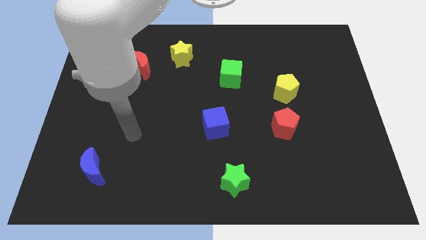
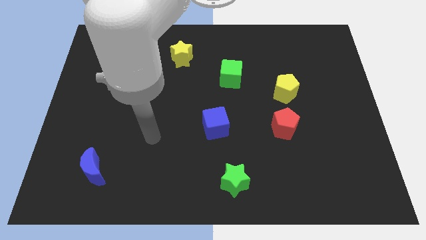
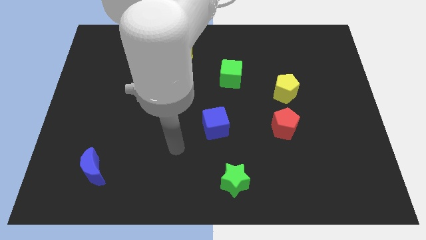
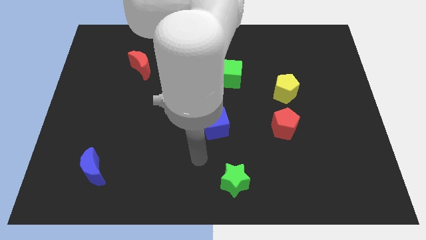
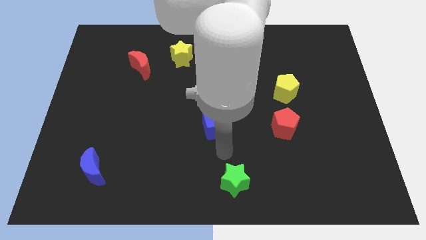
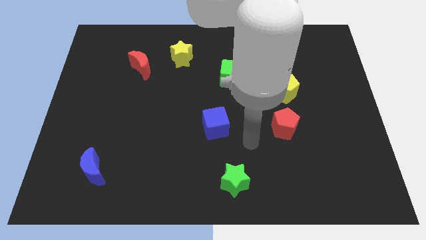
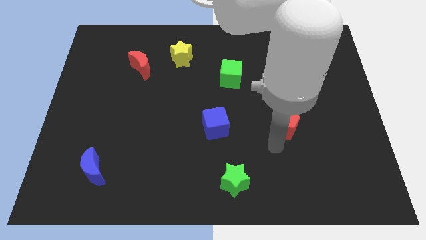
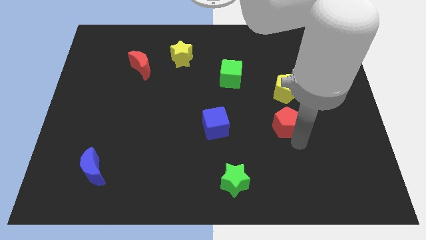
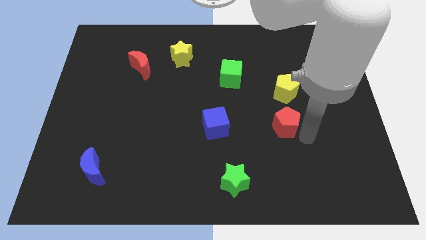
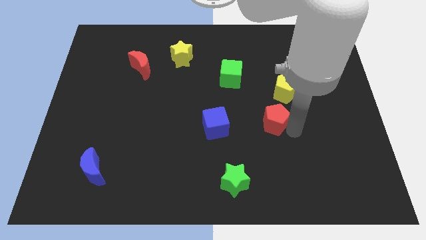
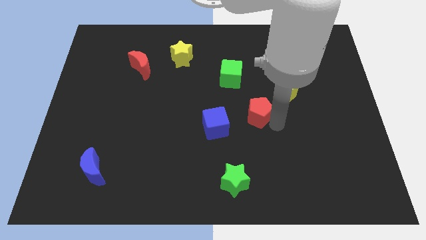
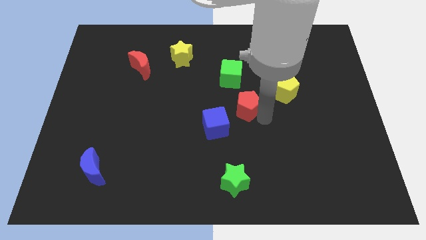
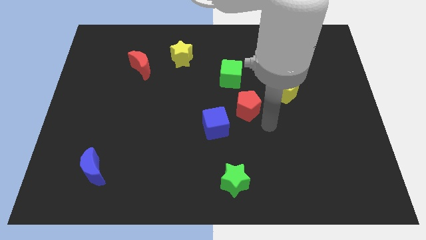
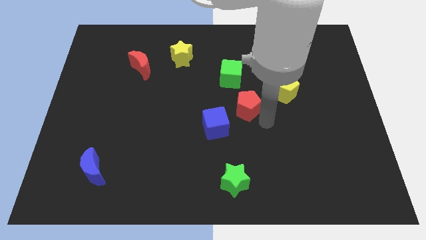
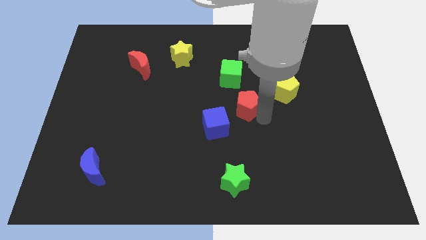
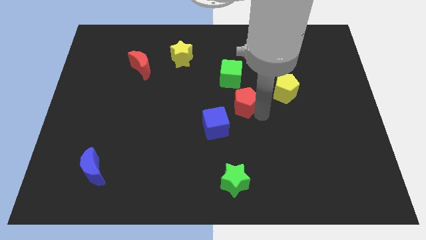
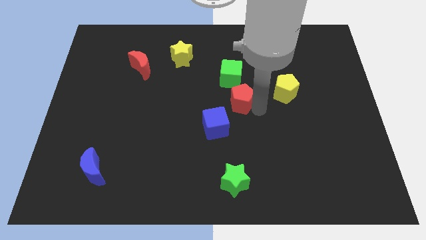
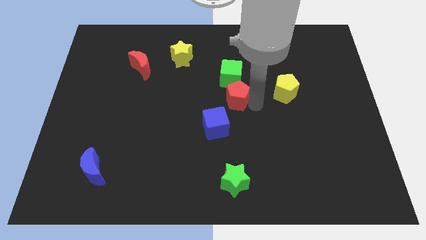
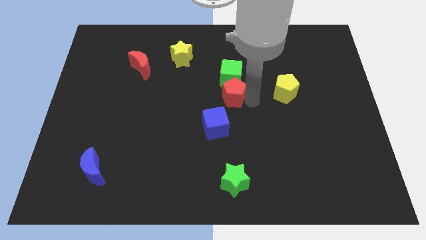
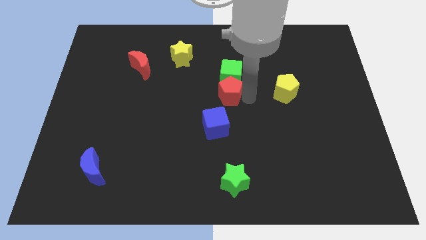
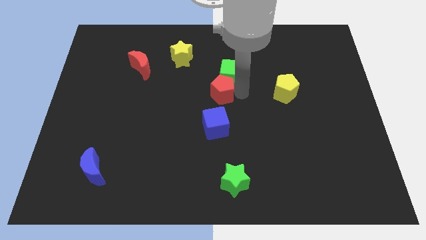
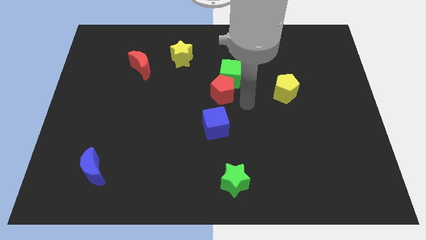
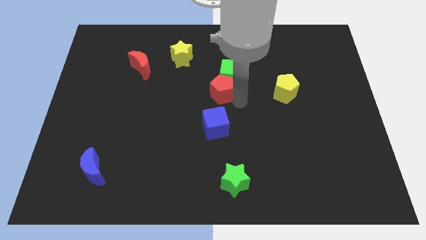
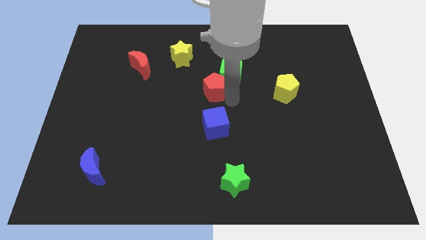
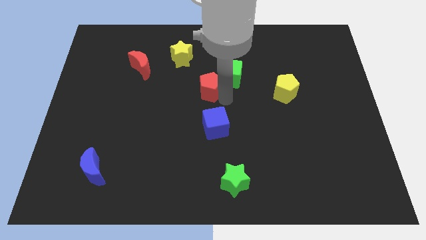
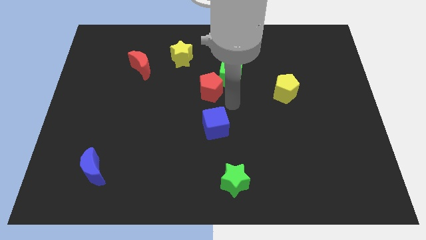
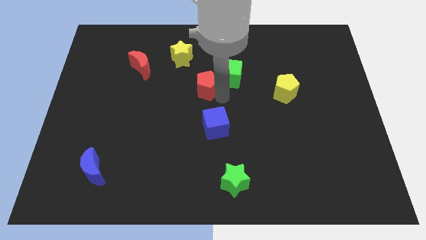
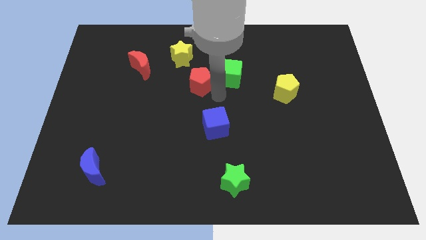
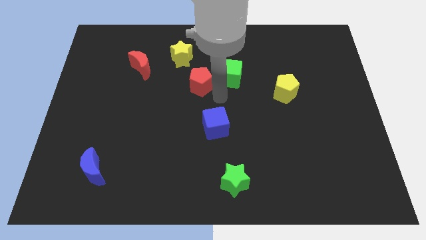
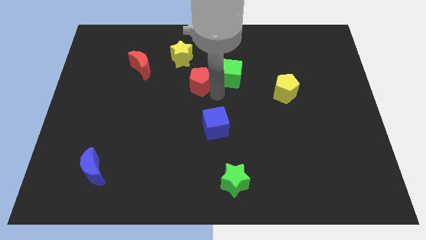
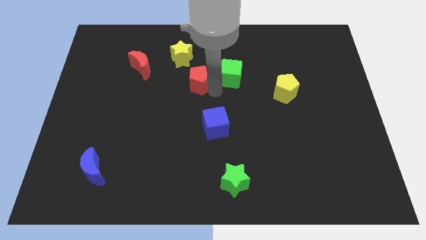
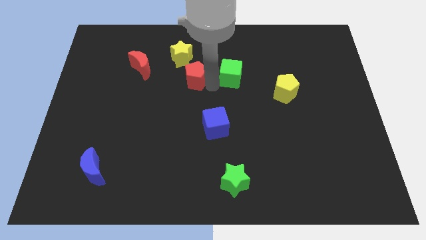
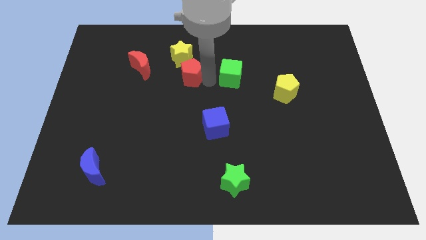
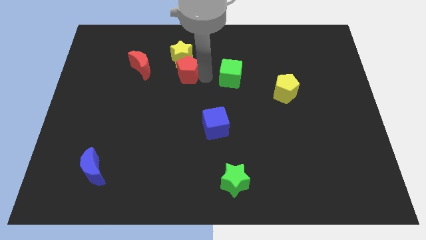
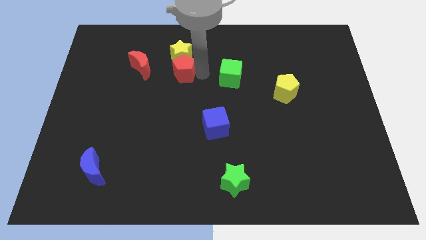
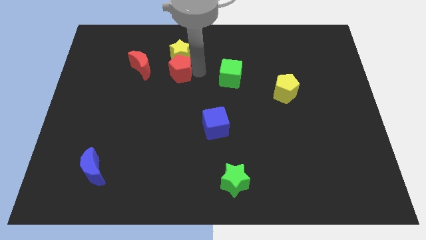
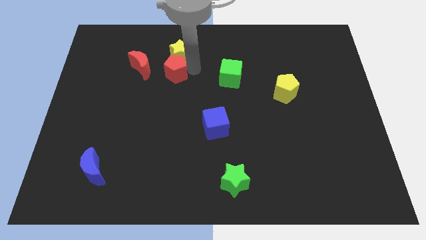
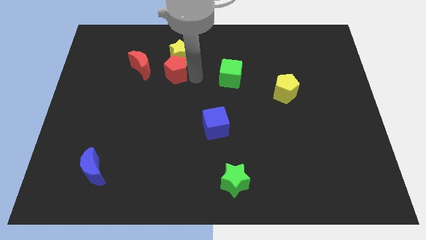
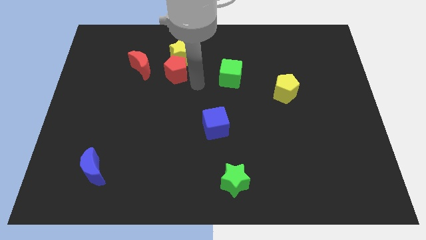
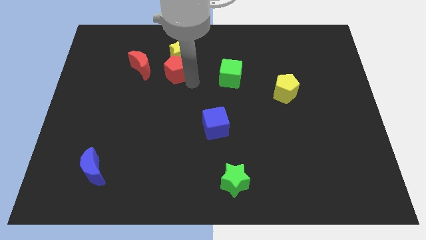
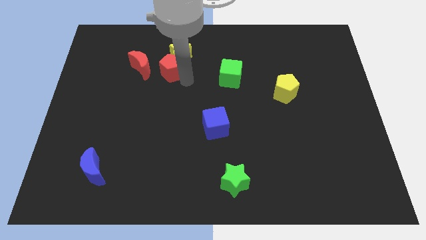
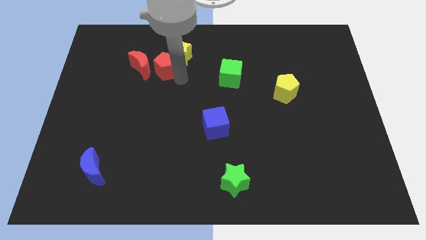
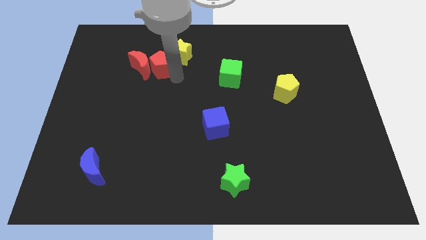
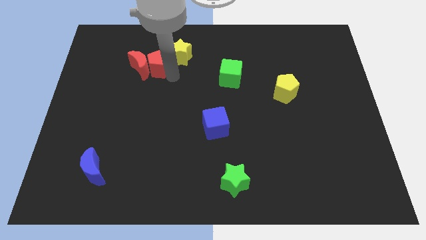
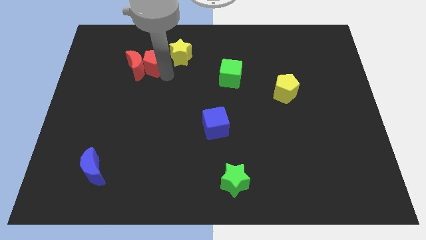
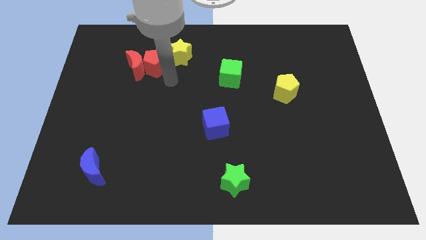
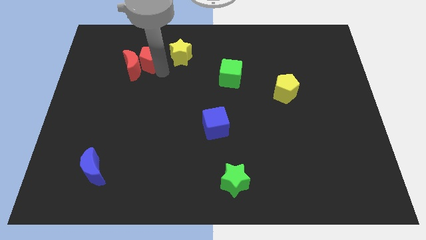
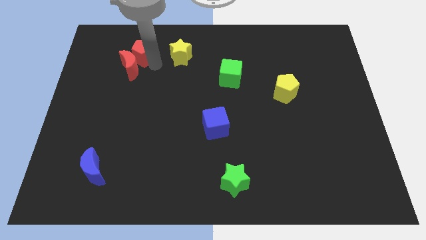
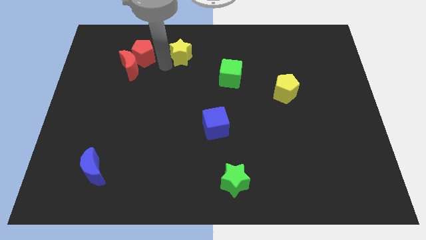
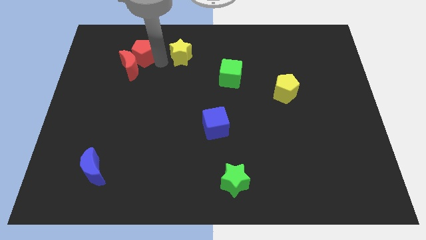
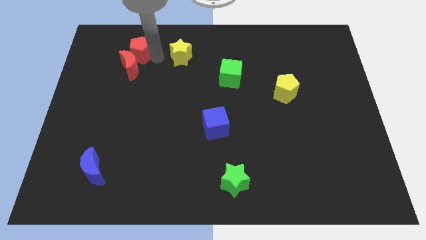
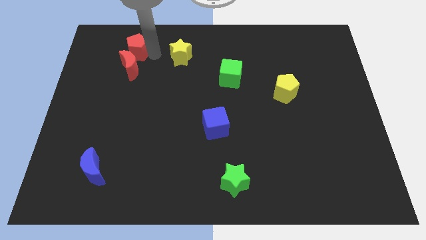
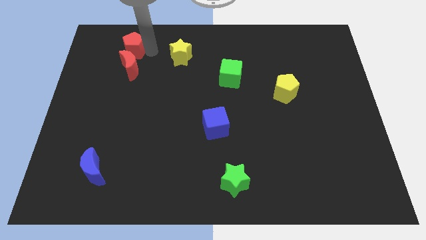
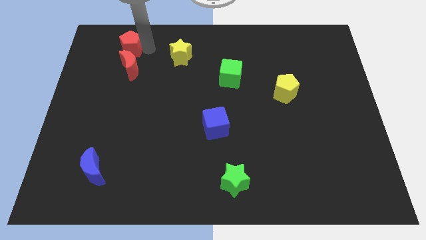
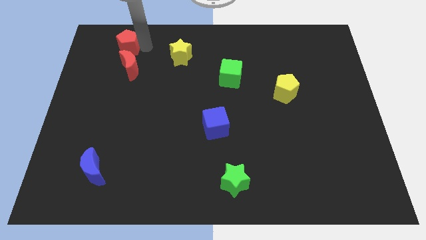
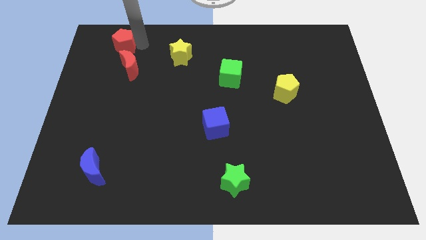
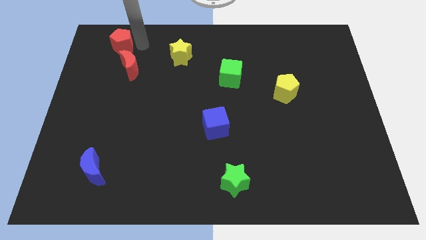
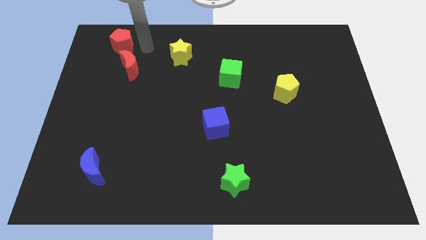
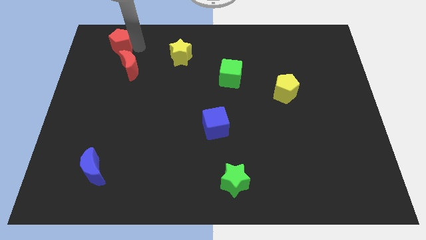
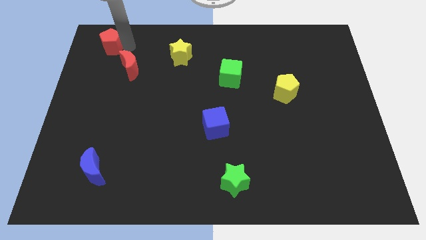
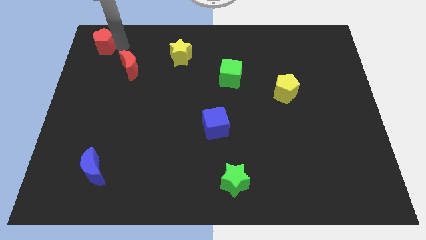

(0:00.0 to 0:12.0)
move the red pentagon to the top left

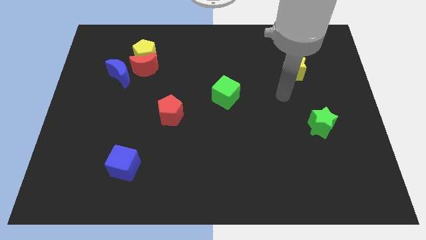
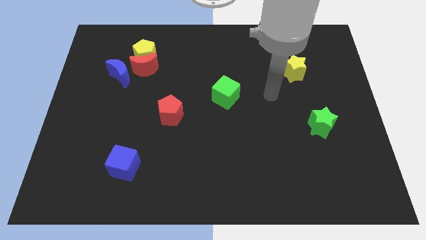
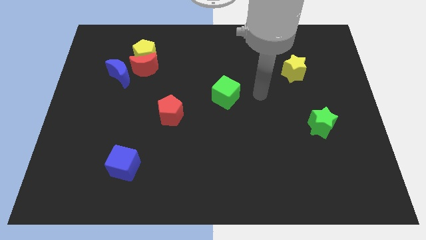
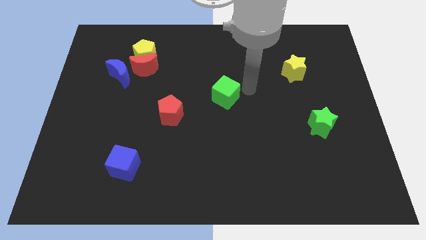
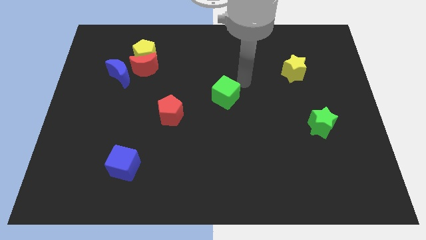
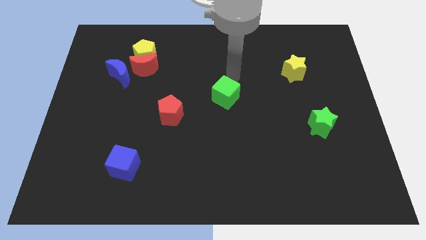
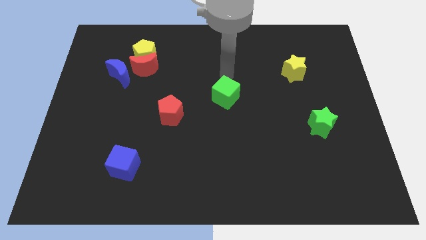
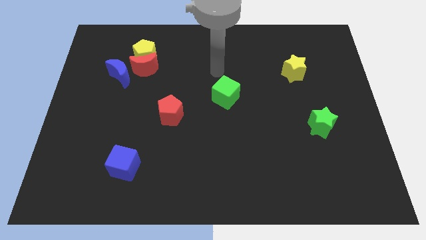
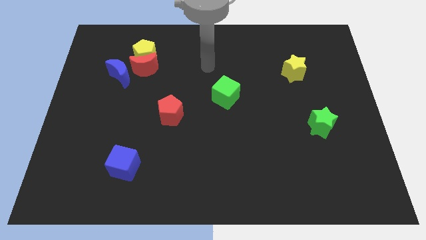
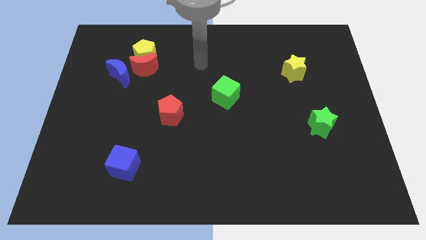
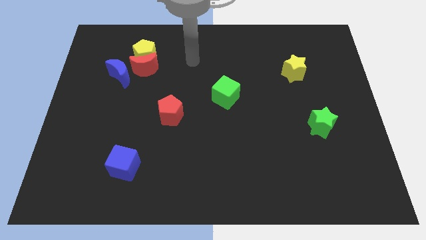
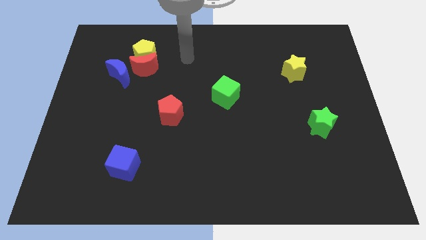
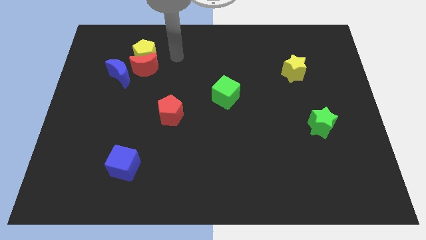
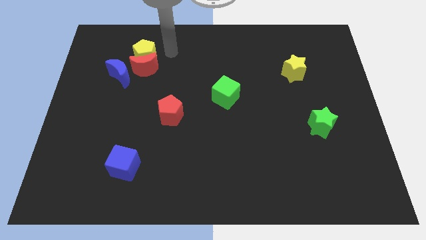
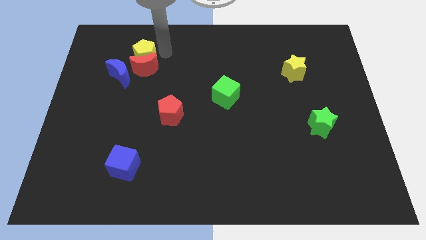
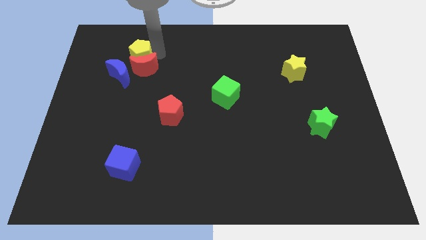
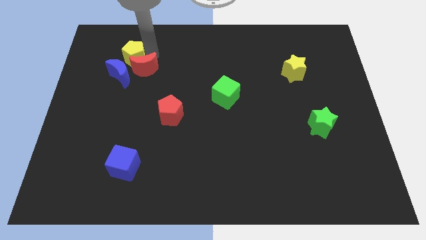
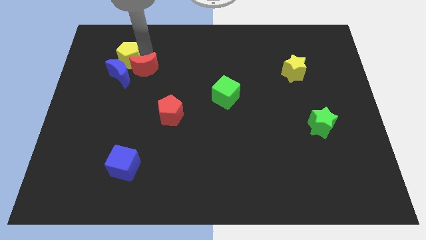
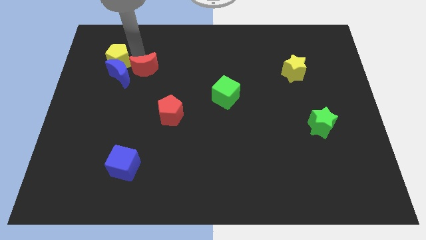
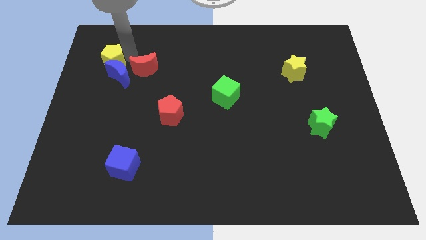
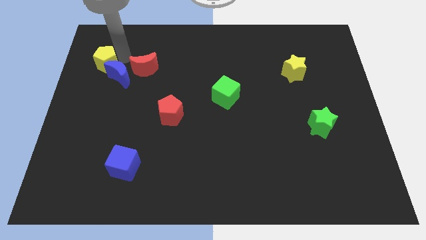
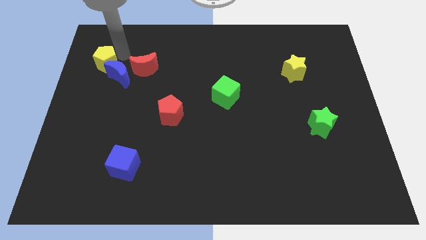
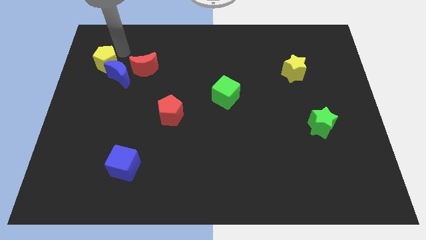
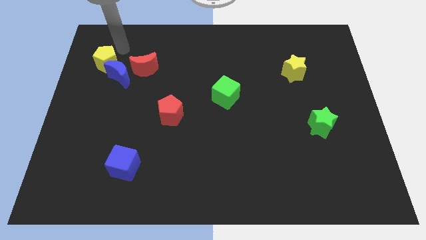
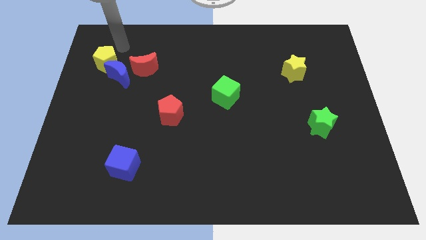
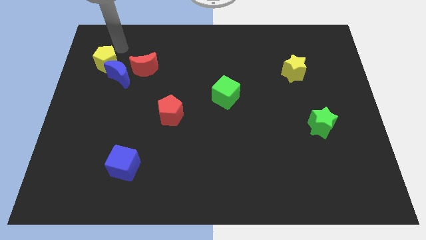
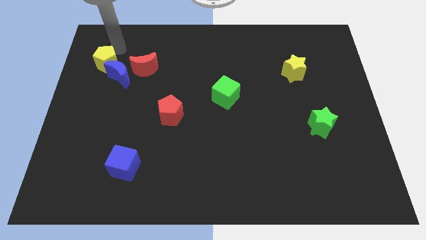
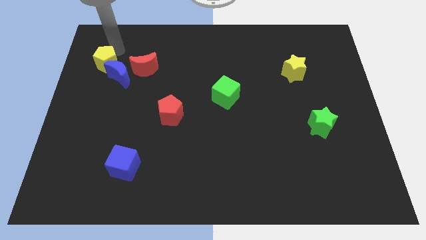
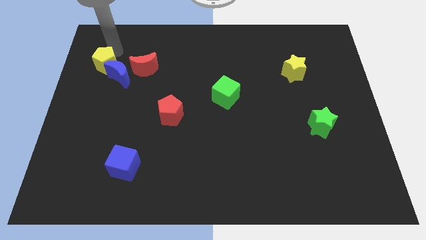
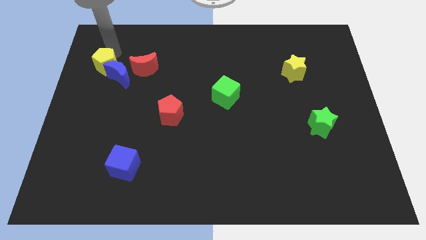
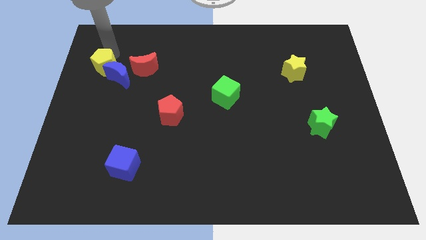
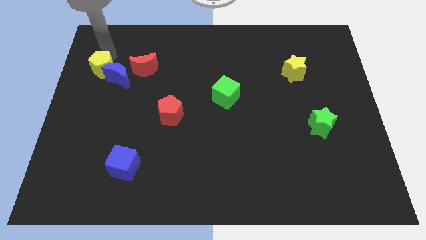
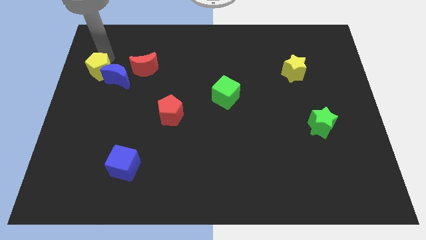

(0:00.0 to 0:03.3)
move the yellow pentagon to the left side of the board
